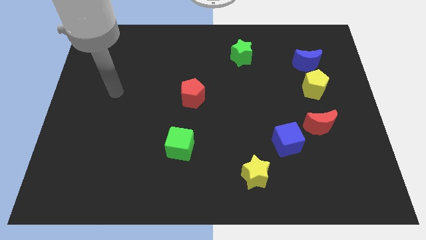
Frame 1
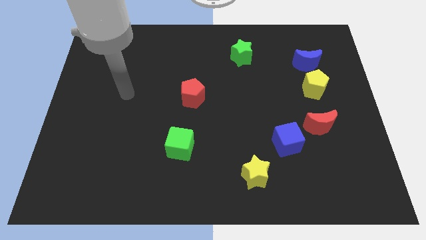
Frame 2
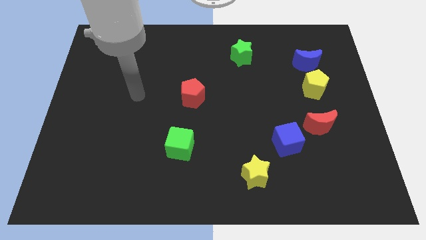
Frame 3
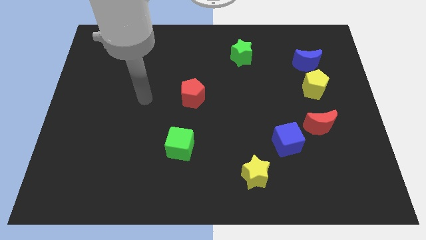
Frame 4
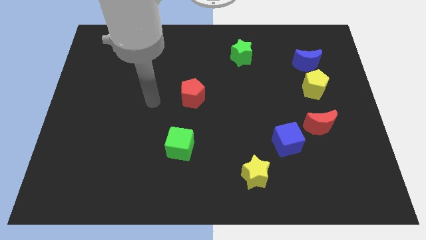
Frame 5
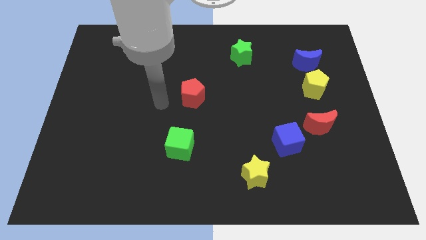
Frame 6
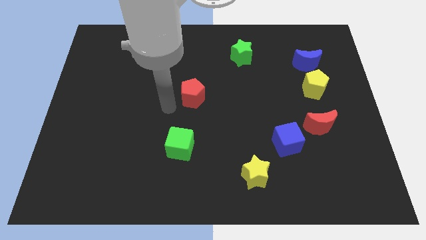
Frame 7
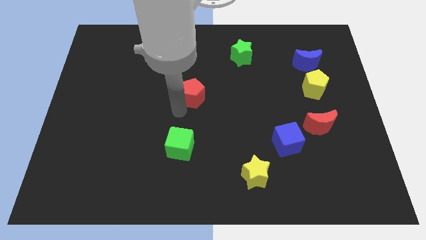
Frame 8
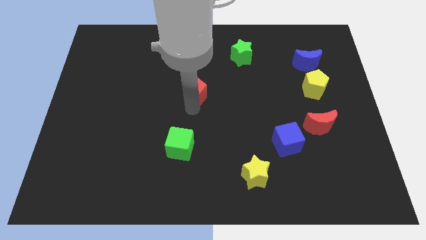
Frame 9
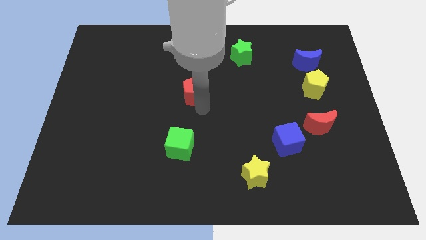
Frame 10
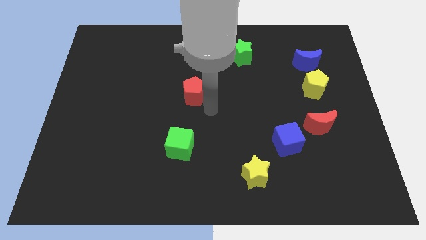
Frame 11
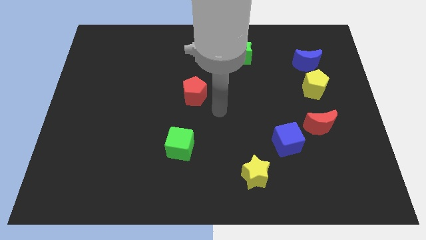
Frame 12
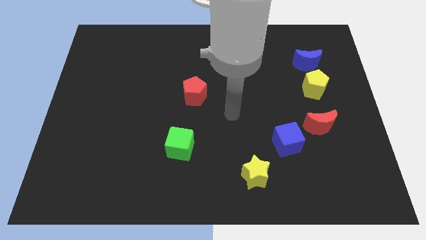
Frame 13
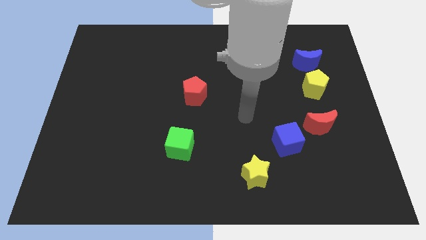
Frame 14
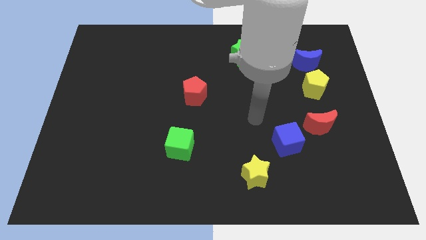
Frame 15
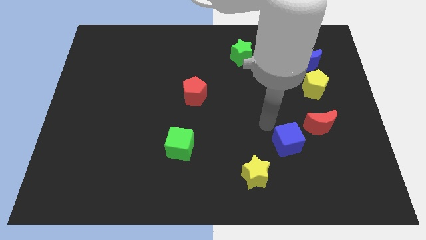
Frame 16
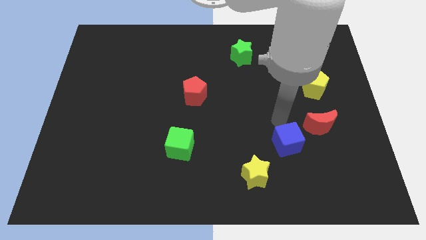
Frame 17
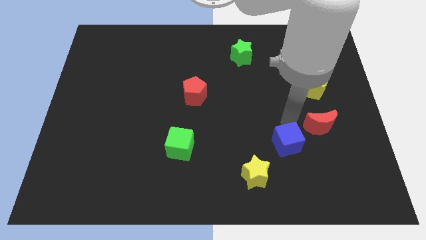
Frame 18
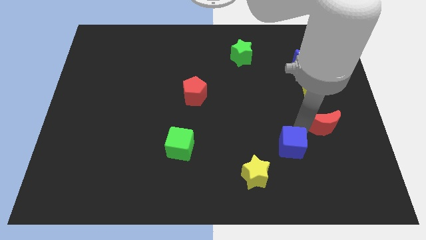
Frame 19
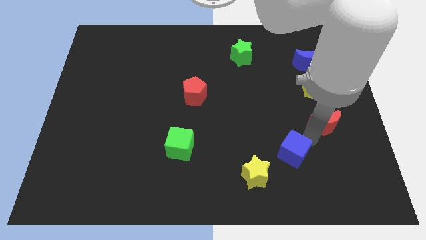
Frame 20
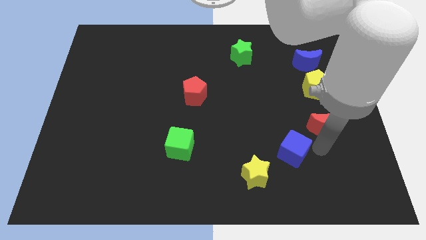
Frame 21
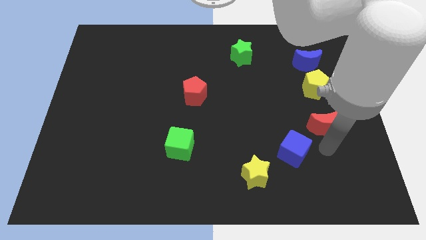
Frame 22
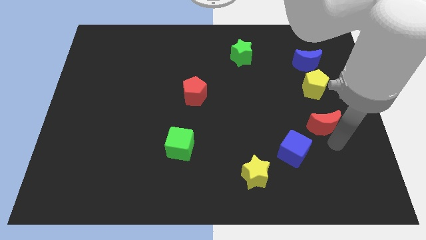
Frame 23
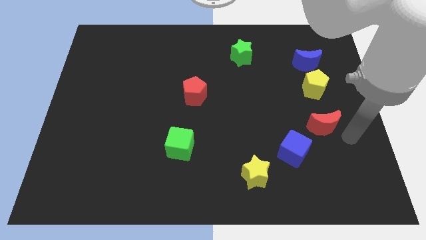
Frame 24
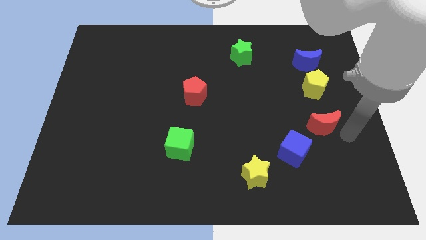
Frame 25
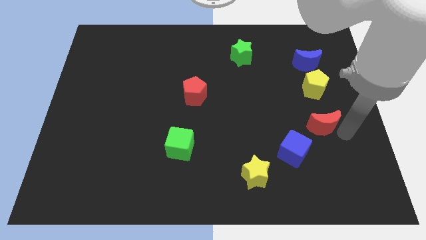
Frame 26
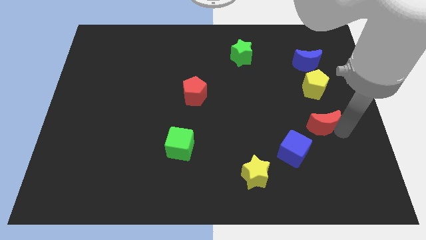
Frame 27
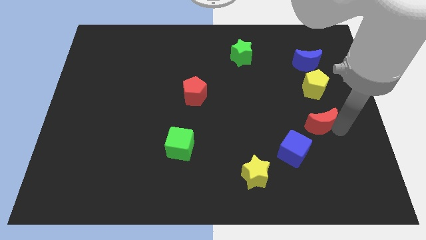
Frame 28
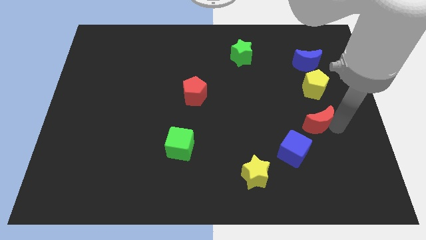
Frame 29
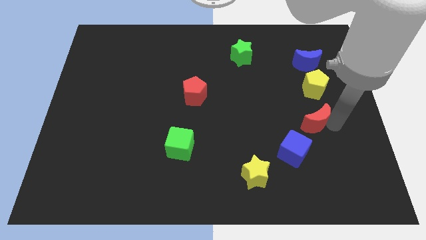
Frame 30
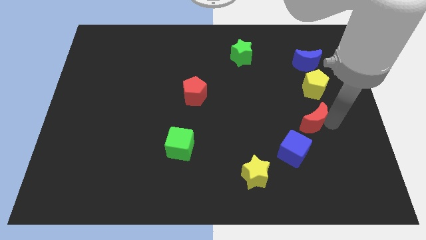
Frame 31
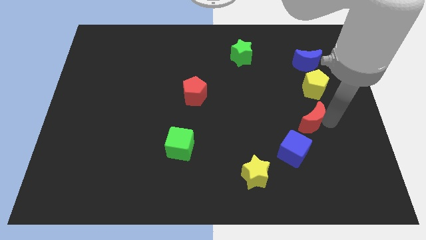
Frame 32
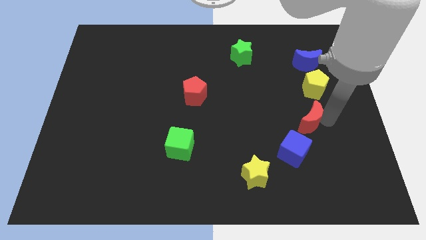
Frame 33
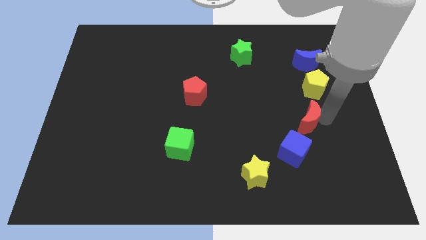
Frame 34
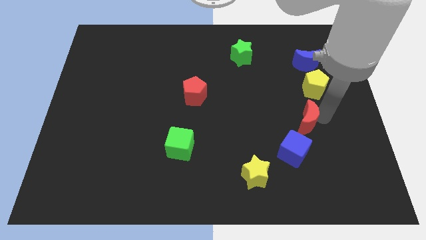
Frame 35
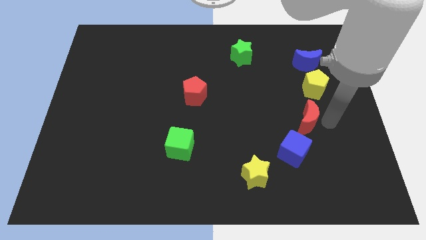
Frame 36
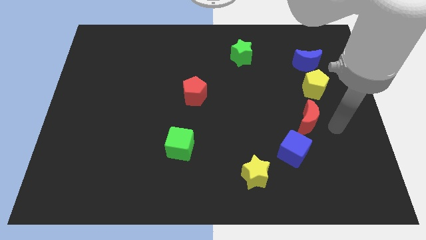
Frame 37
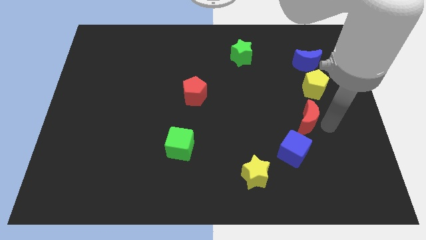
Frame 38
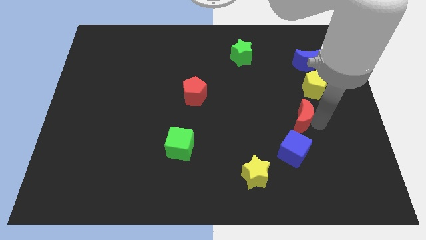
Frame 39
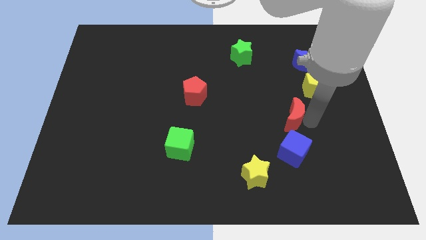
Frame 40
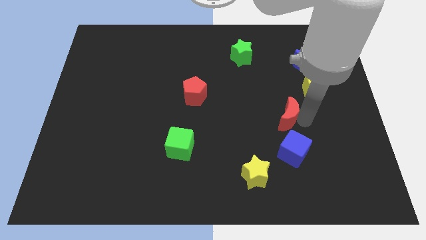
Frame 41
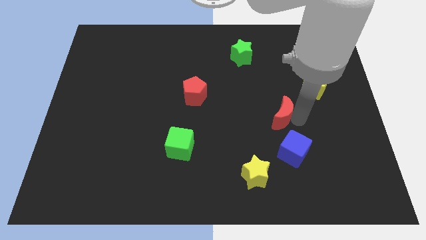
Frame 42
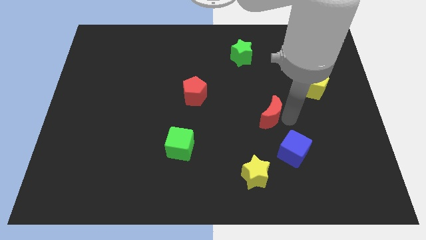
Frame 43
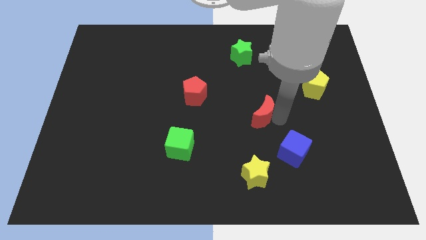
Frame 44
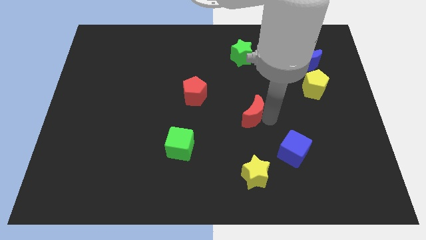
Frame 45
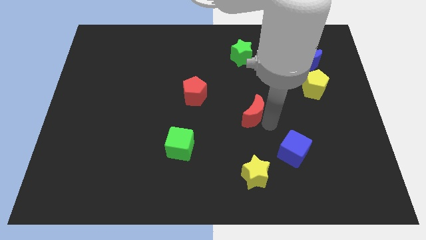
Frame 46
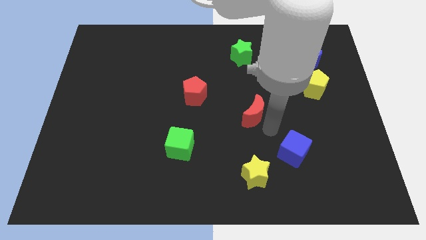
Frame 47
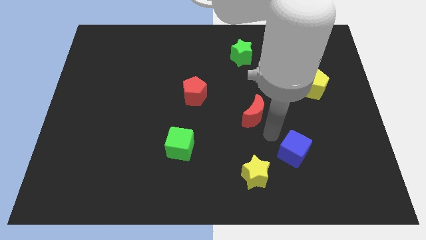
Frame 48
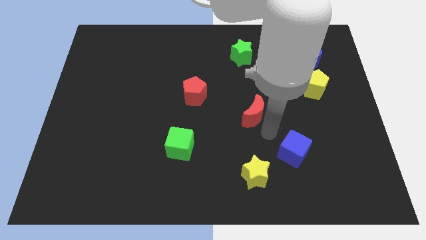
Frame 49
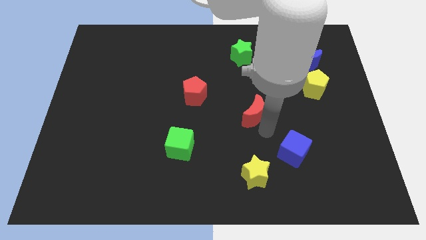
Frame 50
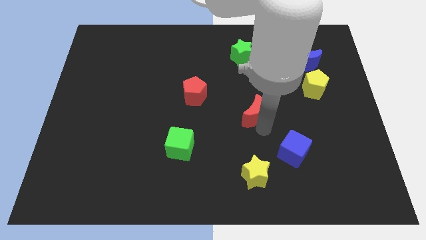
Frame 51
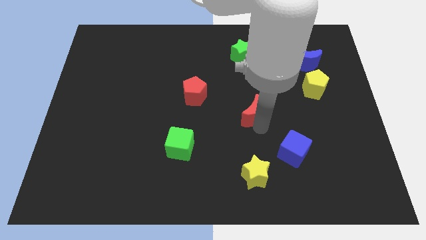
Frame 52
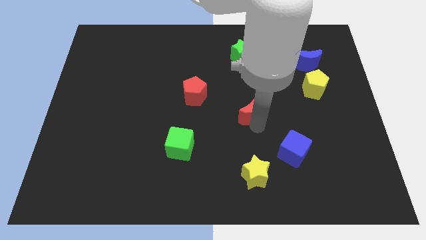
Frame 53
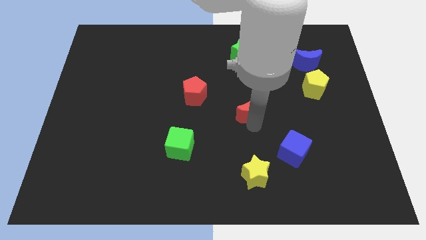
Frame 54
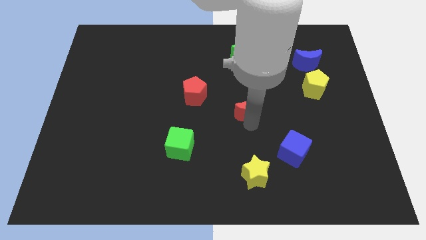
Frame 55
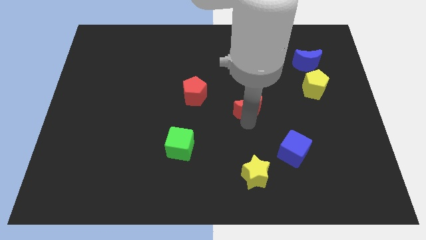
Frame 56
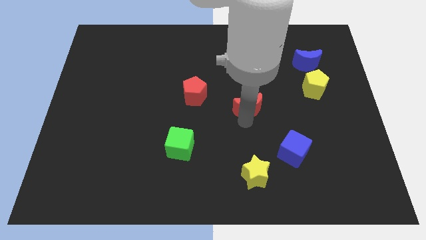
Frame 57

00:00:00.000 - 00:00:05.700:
slide the red moon just right of the red pentagon

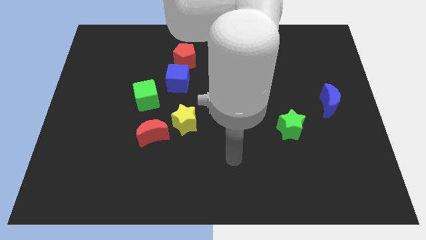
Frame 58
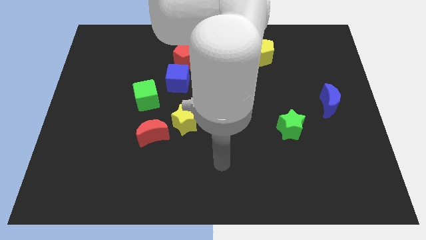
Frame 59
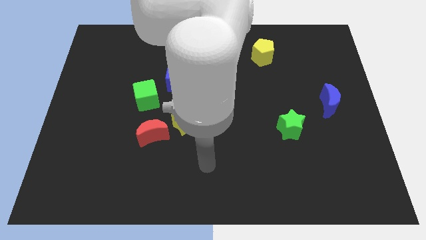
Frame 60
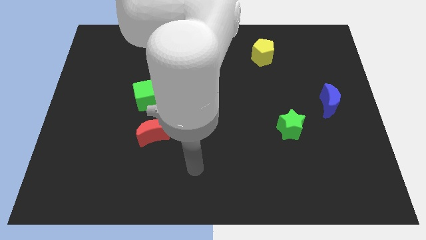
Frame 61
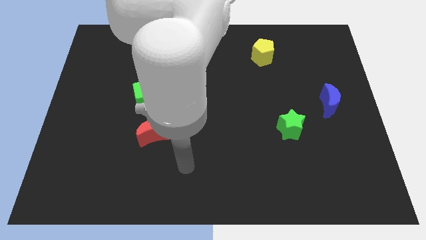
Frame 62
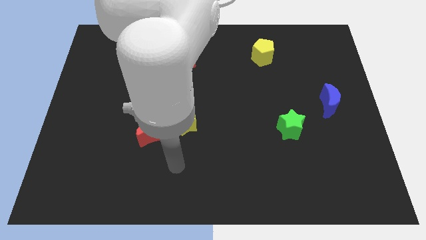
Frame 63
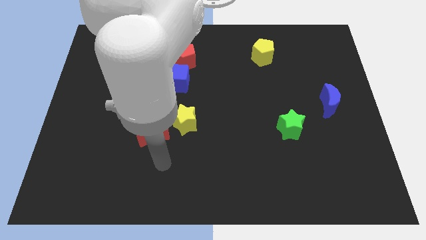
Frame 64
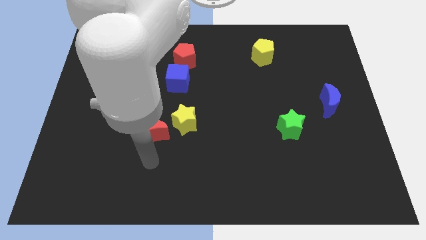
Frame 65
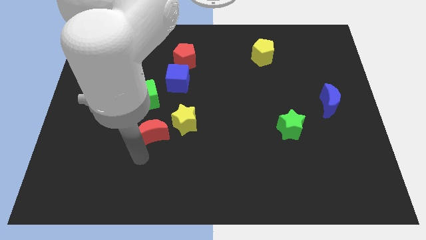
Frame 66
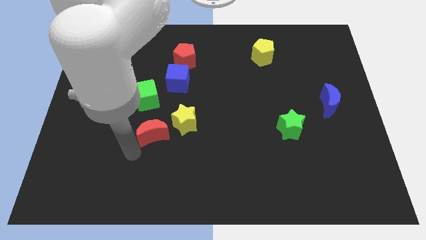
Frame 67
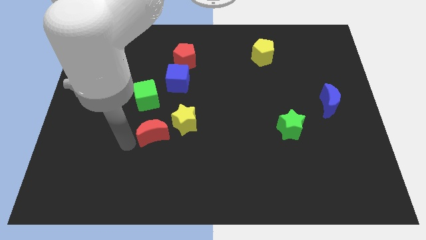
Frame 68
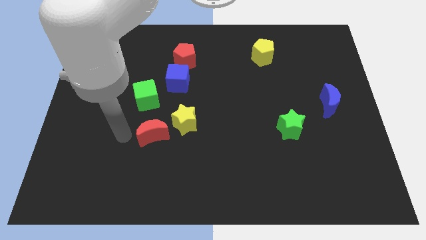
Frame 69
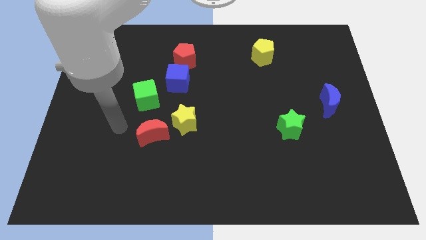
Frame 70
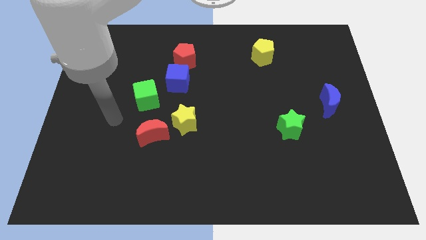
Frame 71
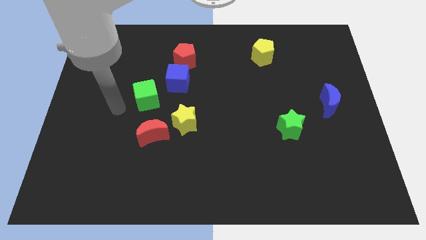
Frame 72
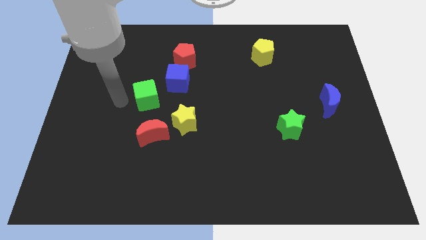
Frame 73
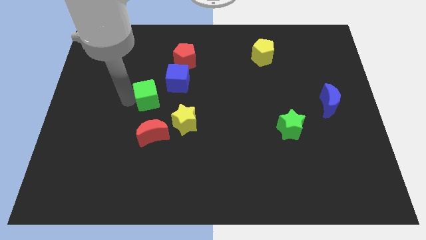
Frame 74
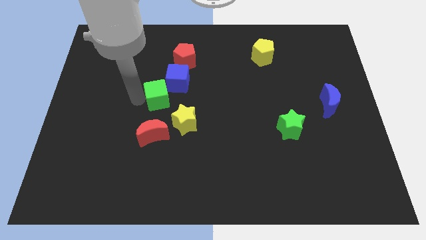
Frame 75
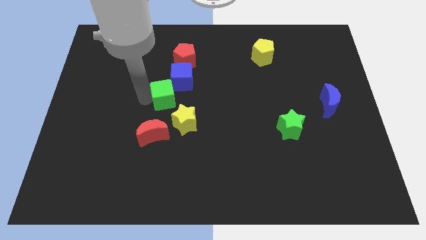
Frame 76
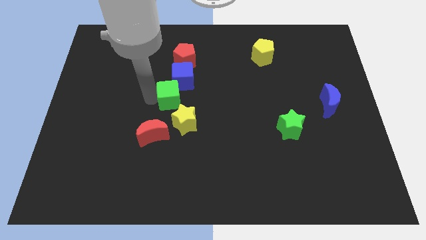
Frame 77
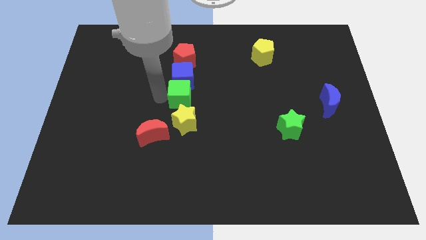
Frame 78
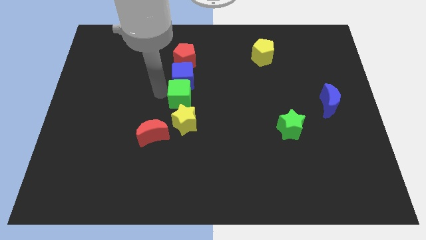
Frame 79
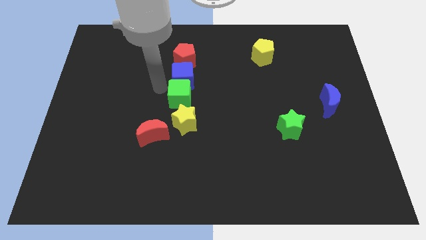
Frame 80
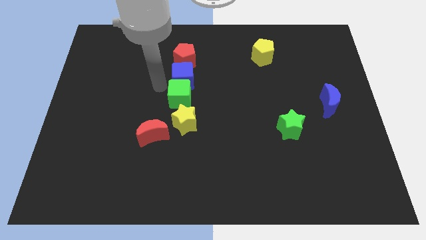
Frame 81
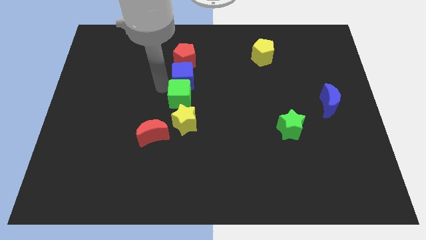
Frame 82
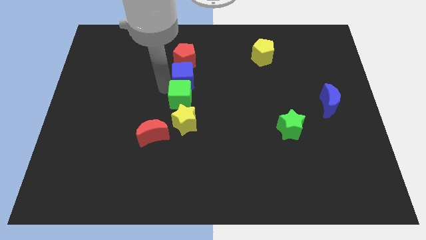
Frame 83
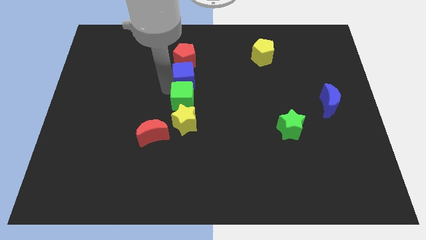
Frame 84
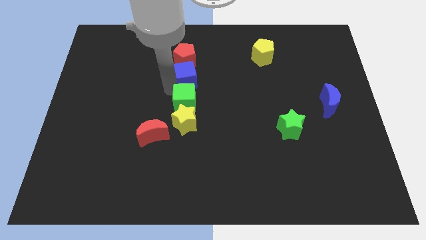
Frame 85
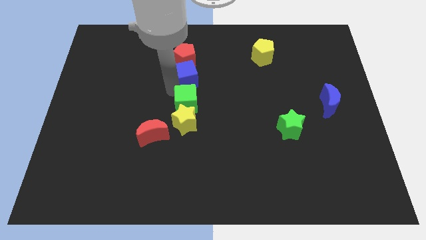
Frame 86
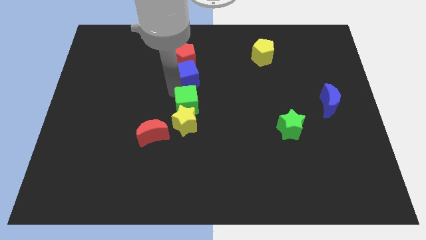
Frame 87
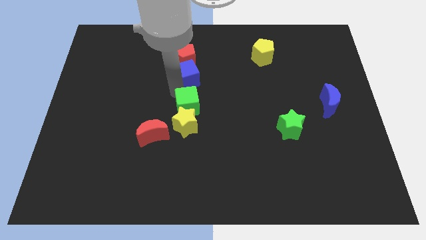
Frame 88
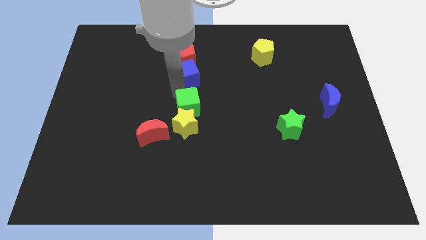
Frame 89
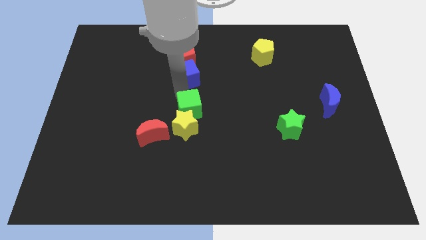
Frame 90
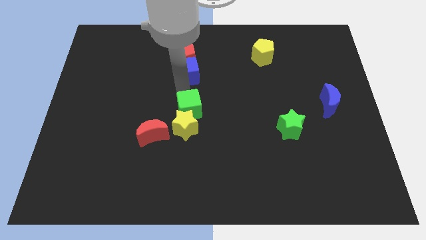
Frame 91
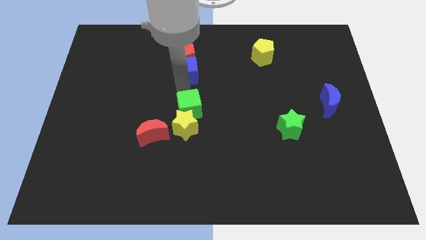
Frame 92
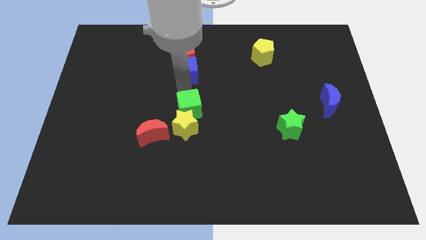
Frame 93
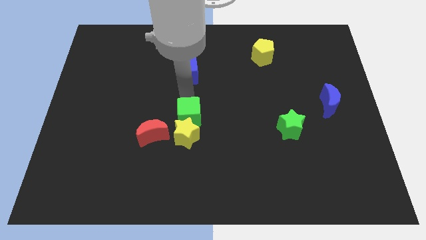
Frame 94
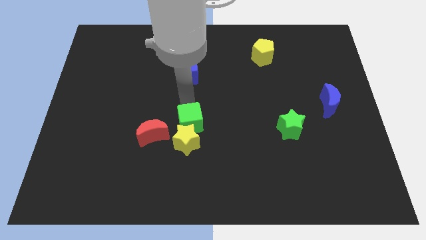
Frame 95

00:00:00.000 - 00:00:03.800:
move the green cube to the right of the red moon
